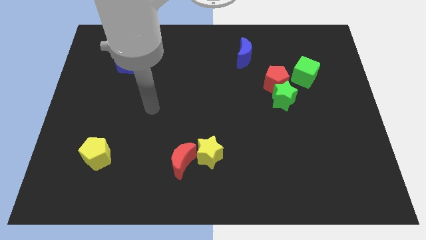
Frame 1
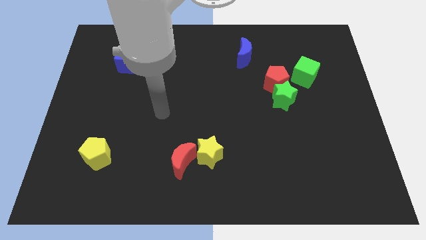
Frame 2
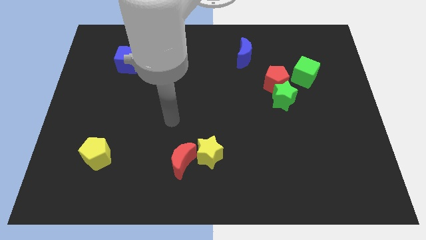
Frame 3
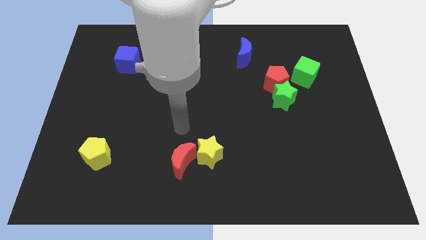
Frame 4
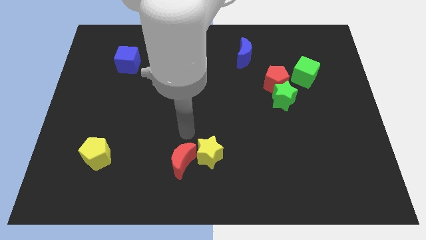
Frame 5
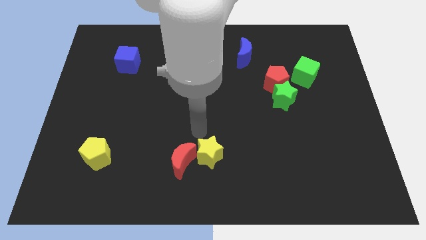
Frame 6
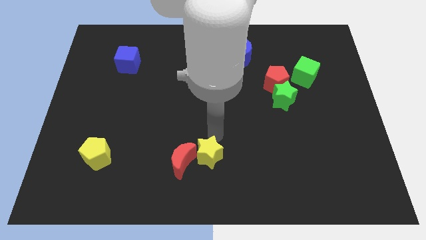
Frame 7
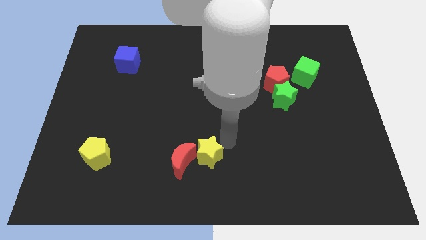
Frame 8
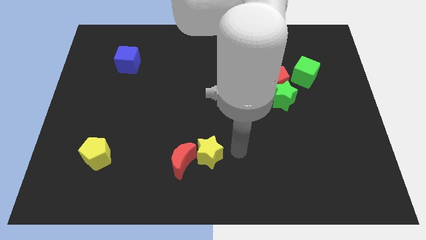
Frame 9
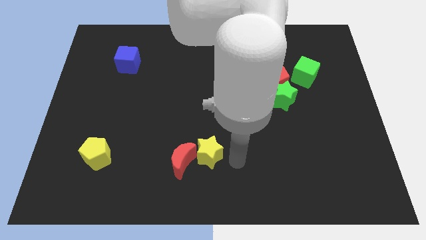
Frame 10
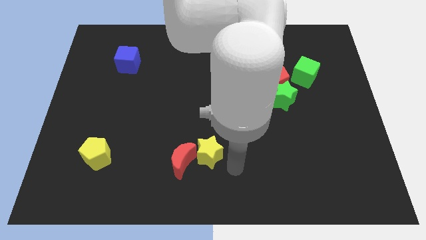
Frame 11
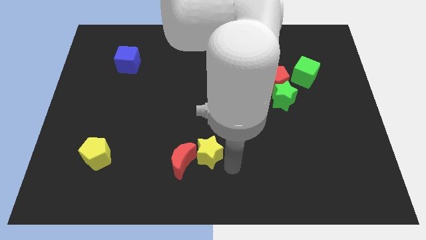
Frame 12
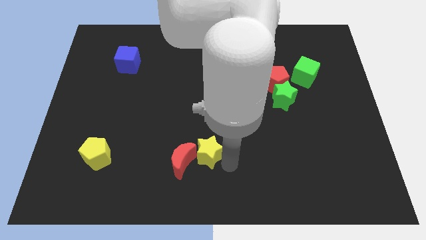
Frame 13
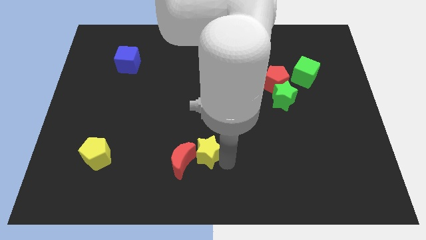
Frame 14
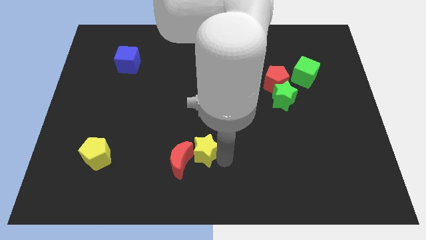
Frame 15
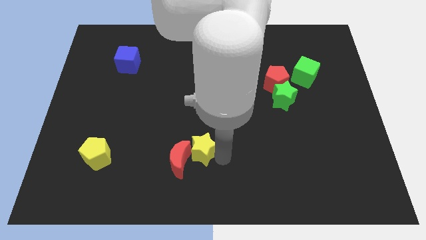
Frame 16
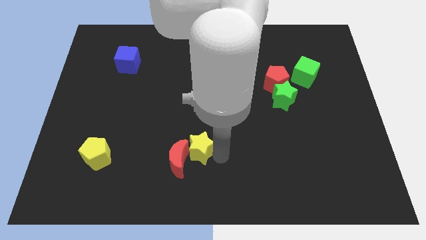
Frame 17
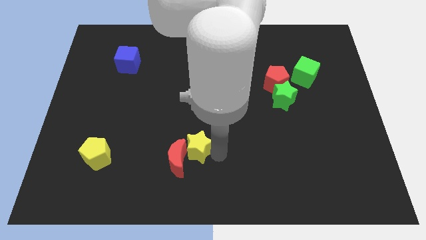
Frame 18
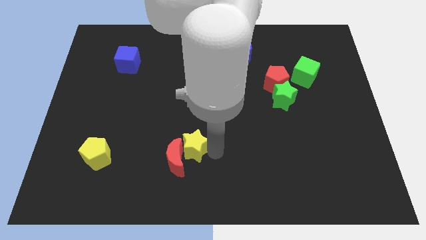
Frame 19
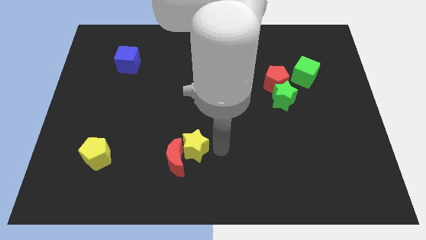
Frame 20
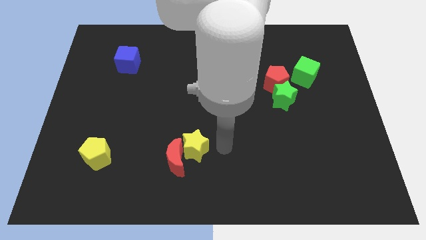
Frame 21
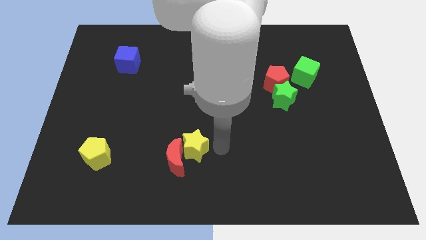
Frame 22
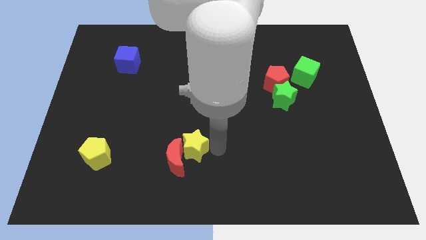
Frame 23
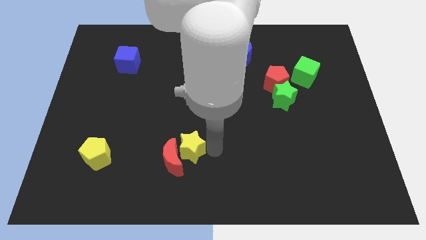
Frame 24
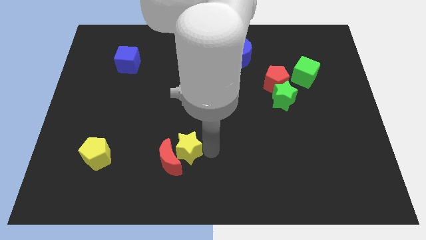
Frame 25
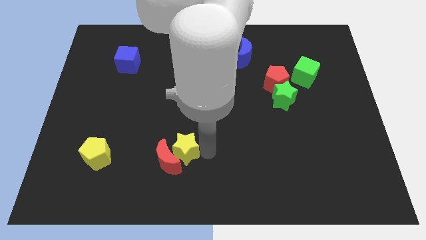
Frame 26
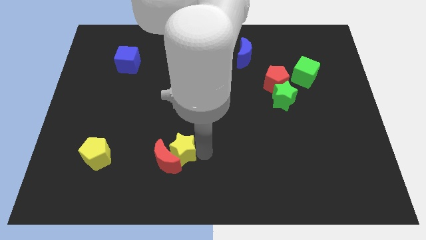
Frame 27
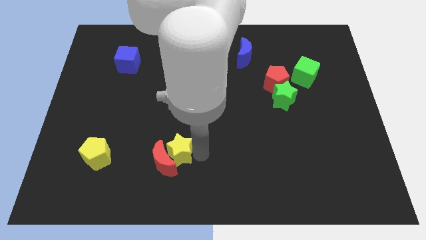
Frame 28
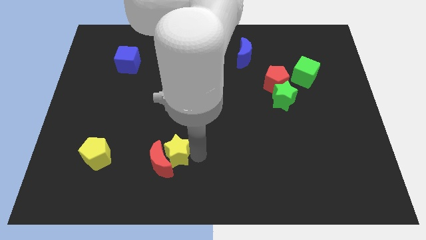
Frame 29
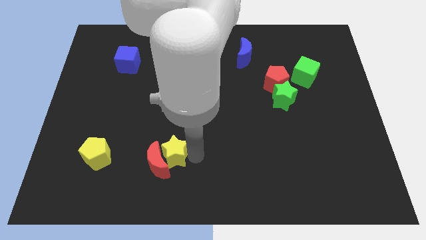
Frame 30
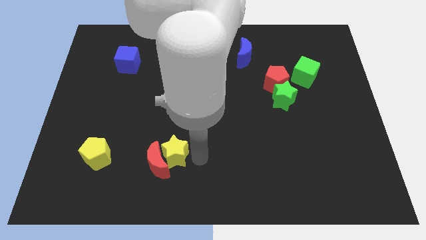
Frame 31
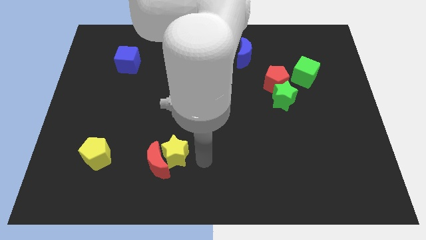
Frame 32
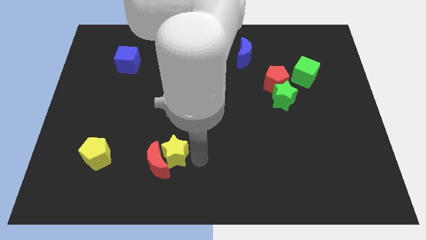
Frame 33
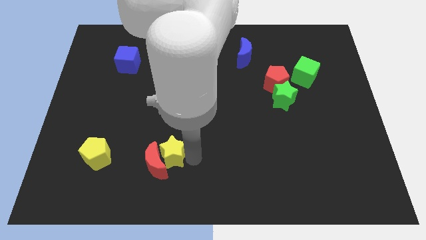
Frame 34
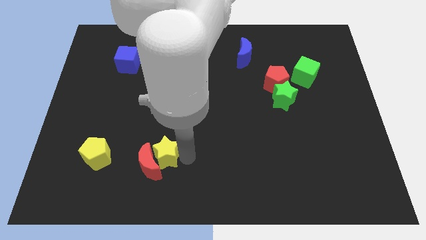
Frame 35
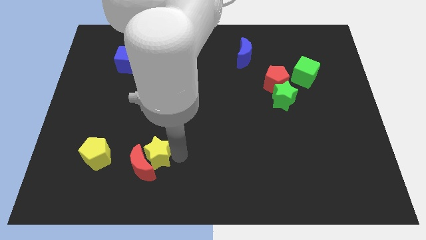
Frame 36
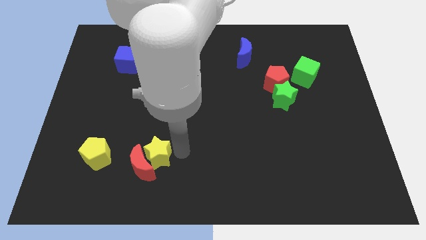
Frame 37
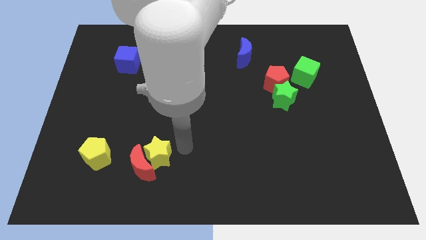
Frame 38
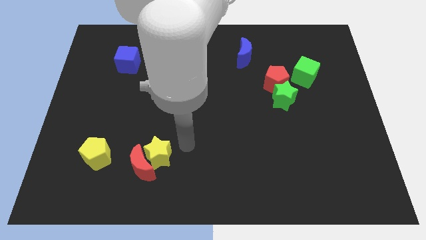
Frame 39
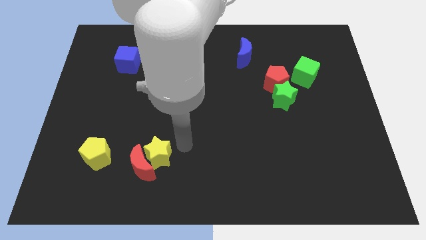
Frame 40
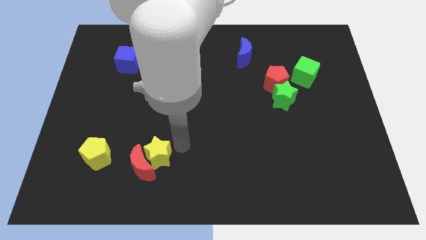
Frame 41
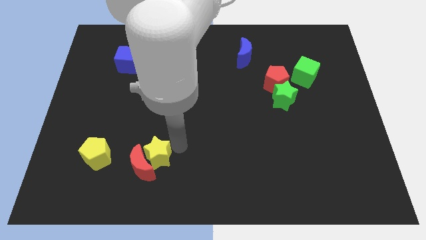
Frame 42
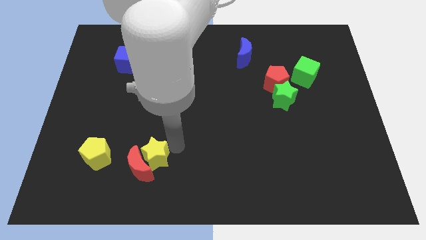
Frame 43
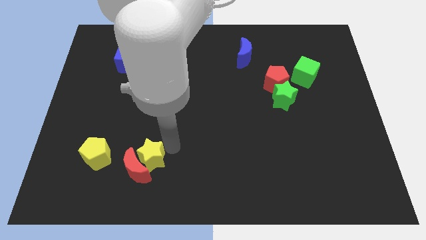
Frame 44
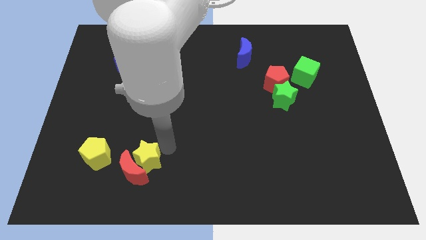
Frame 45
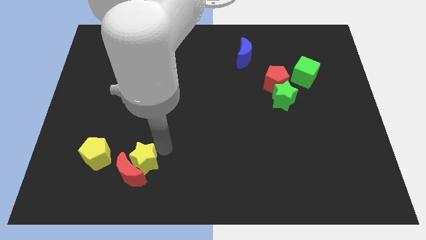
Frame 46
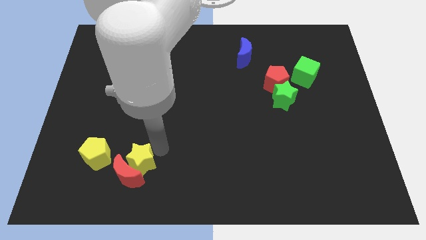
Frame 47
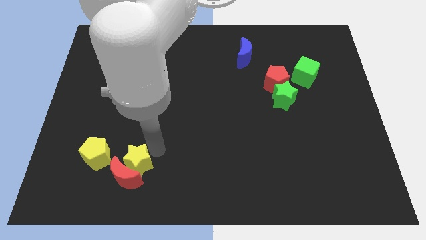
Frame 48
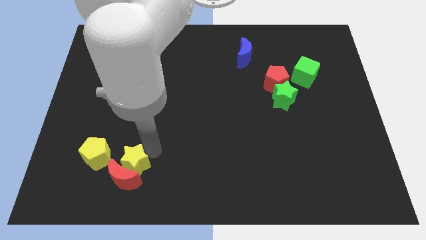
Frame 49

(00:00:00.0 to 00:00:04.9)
put the yellow star to the bottom right side of the yellow pentagon

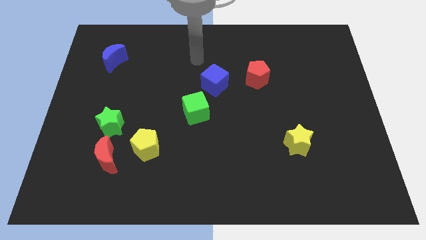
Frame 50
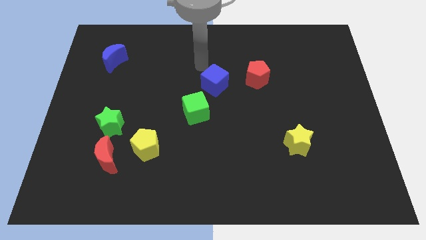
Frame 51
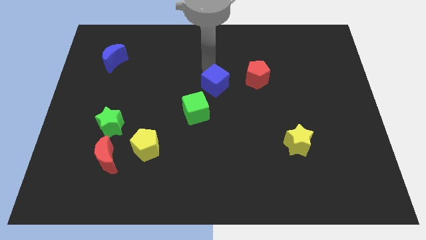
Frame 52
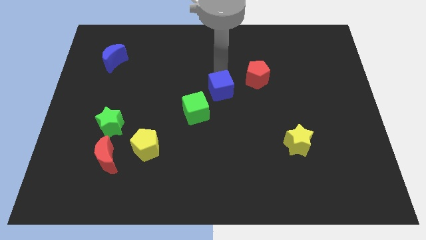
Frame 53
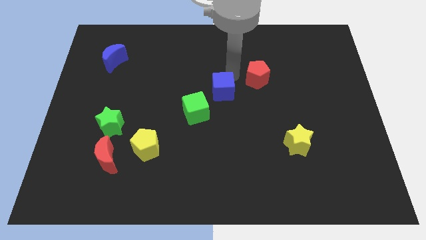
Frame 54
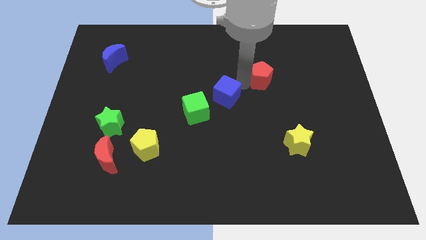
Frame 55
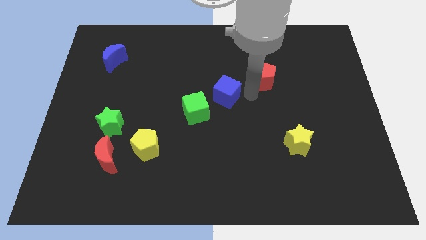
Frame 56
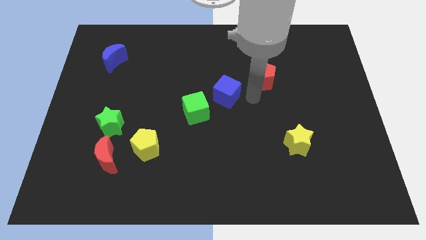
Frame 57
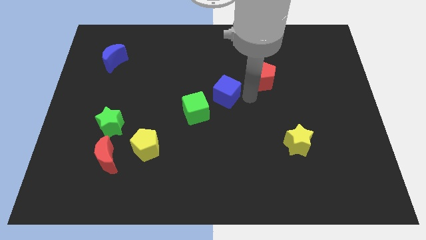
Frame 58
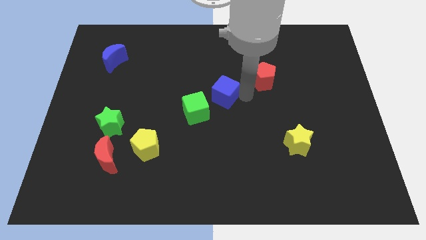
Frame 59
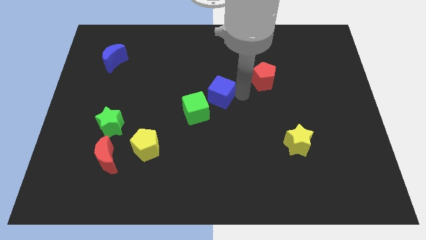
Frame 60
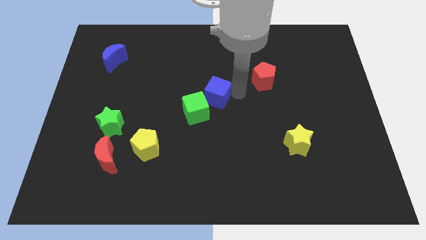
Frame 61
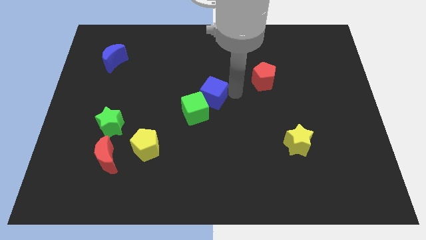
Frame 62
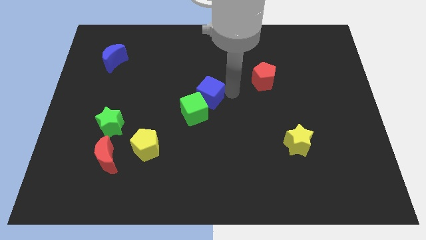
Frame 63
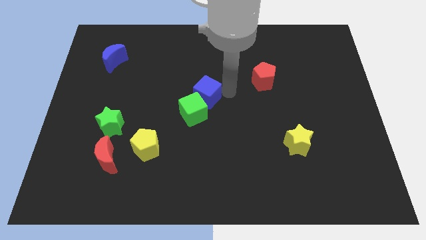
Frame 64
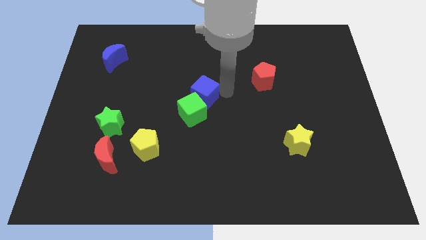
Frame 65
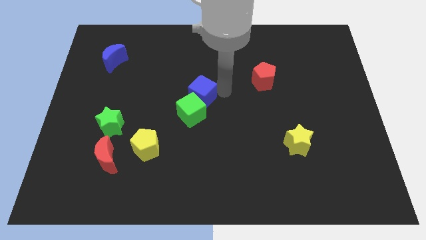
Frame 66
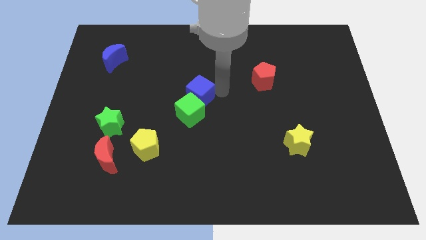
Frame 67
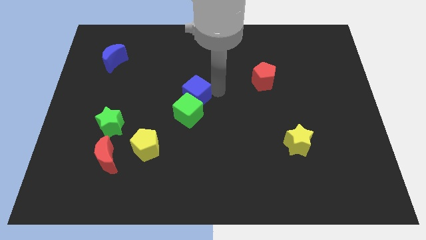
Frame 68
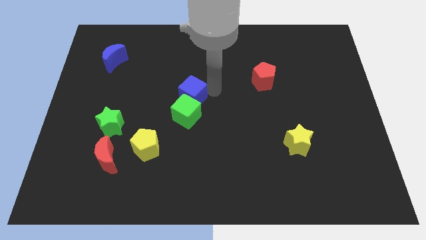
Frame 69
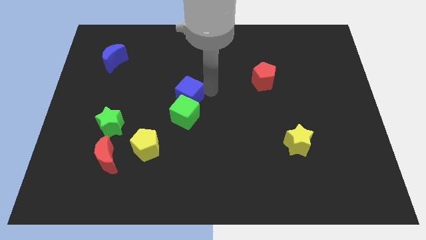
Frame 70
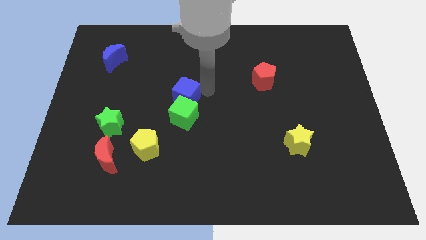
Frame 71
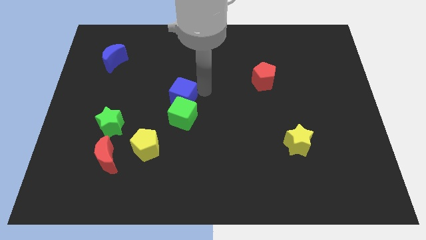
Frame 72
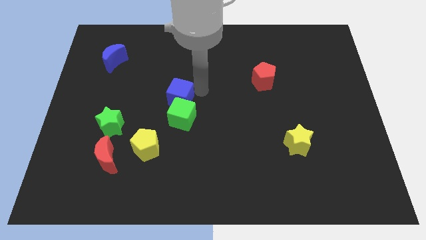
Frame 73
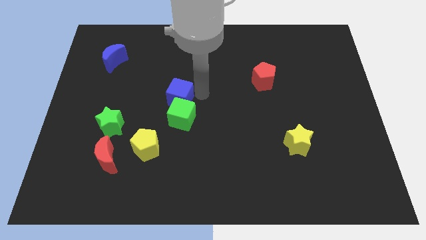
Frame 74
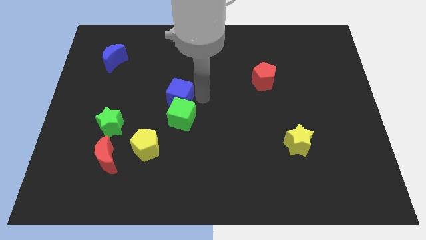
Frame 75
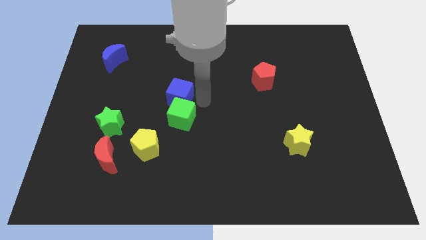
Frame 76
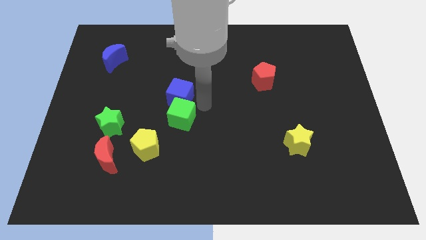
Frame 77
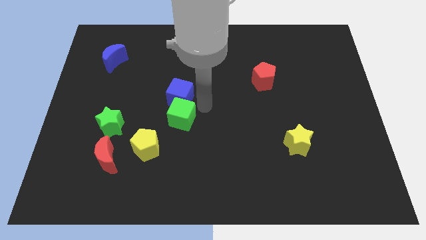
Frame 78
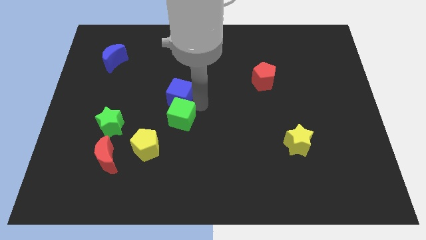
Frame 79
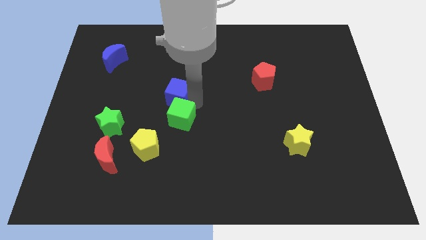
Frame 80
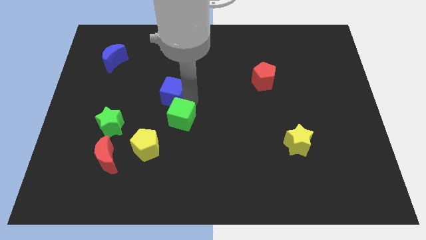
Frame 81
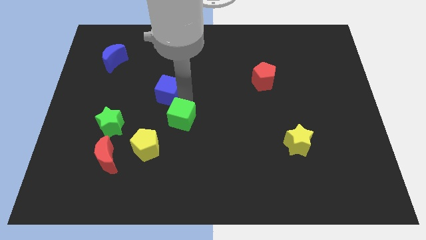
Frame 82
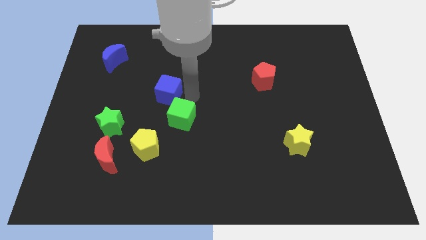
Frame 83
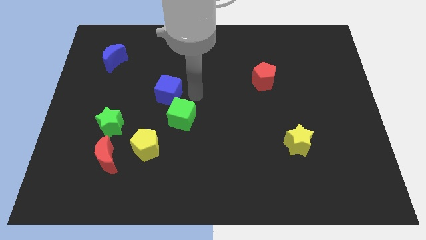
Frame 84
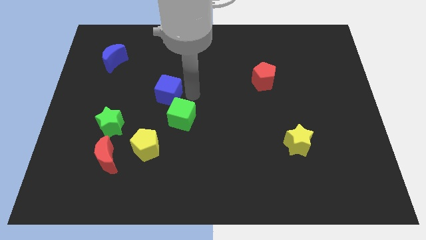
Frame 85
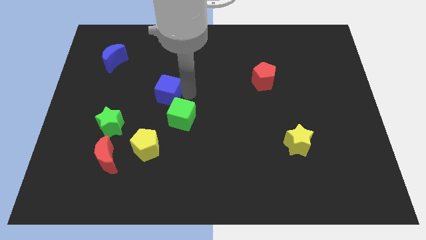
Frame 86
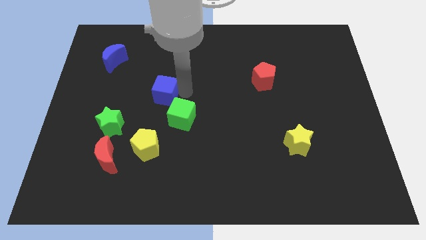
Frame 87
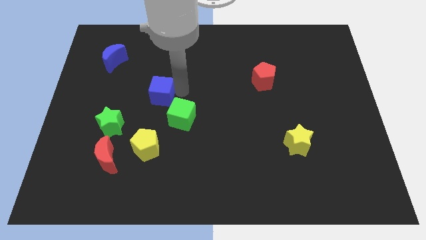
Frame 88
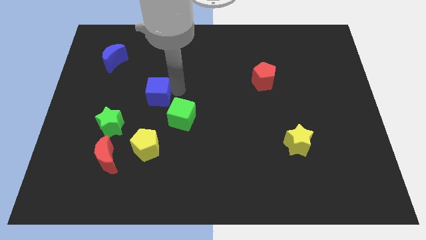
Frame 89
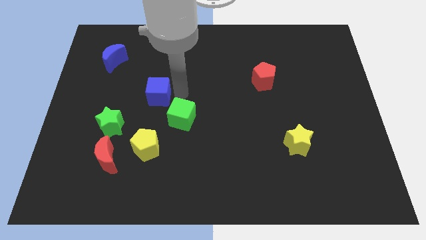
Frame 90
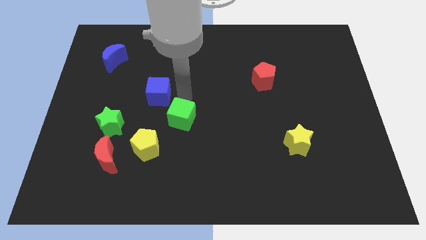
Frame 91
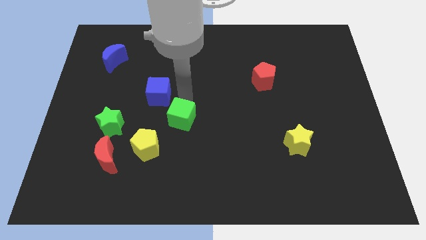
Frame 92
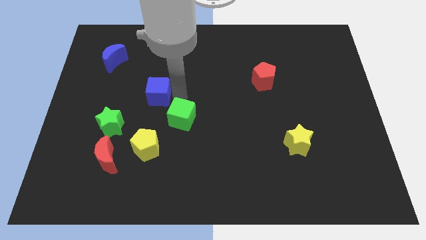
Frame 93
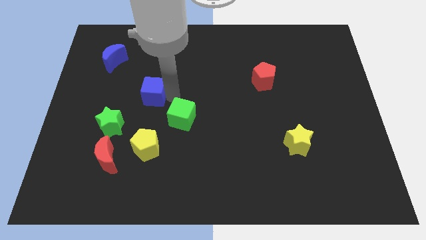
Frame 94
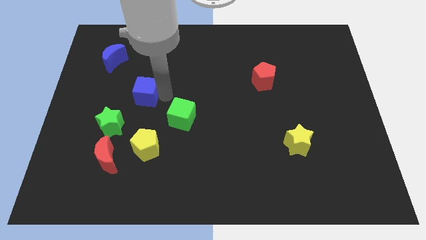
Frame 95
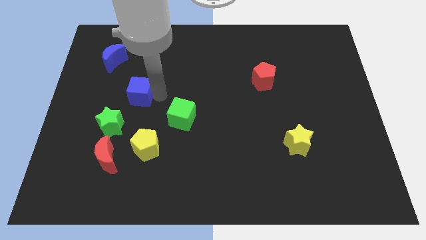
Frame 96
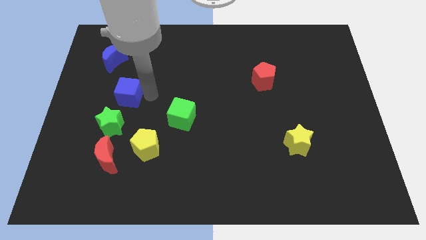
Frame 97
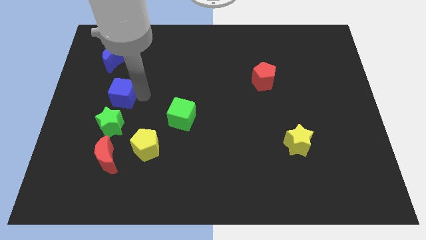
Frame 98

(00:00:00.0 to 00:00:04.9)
push the blue cube to the bottom side of the blue moon
